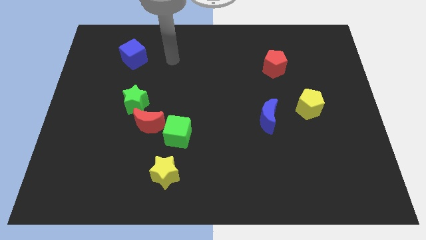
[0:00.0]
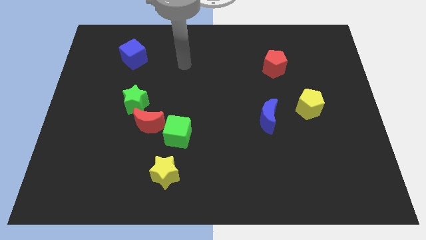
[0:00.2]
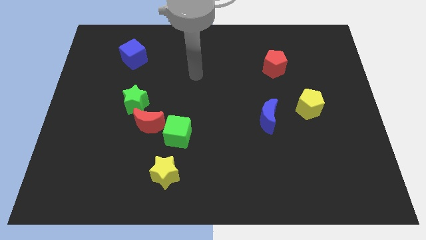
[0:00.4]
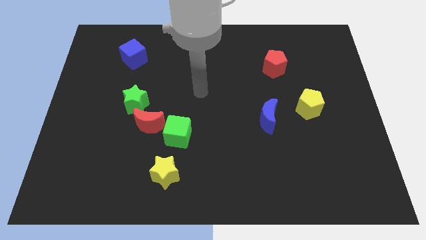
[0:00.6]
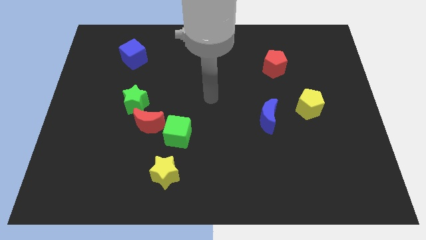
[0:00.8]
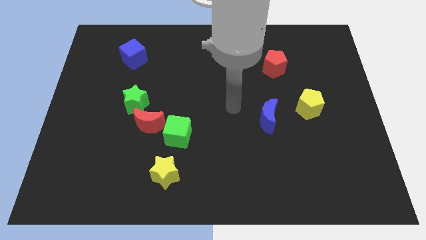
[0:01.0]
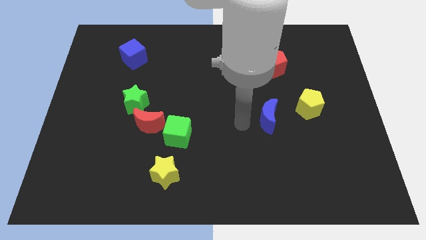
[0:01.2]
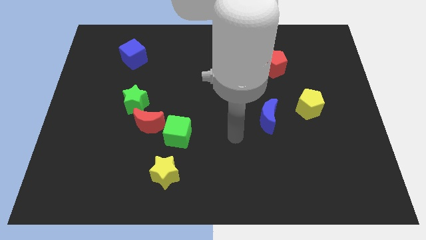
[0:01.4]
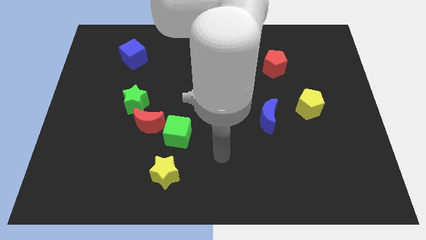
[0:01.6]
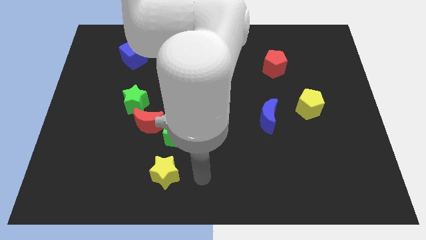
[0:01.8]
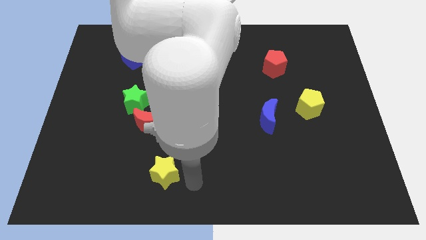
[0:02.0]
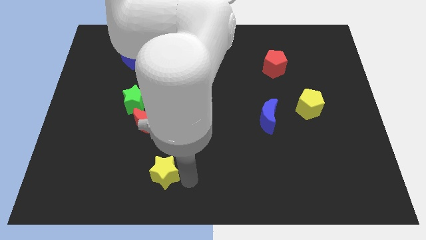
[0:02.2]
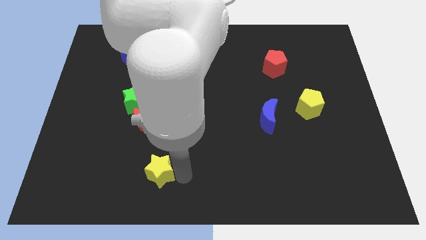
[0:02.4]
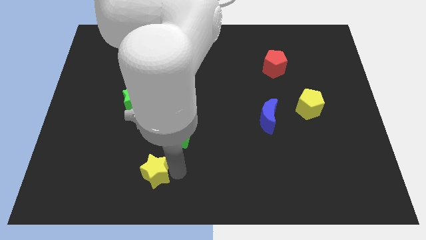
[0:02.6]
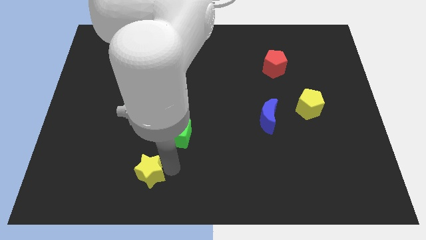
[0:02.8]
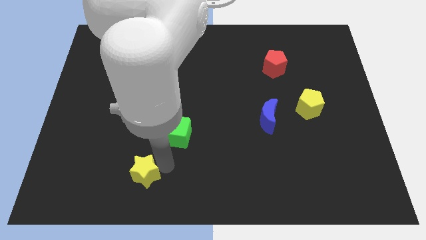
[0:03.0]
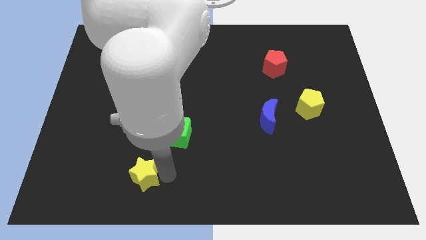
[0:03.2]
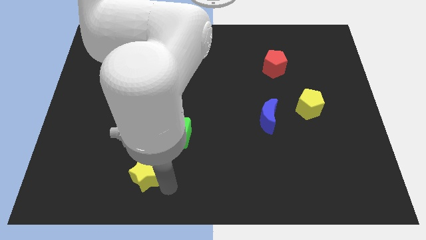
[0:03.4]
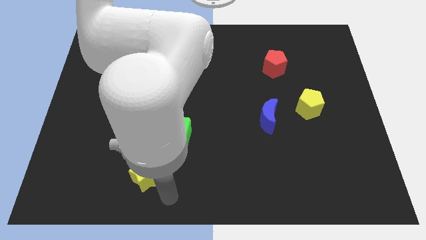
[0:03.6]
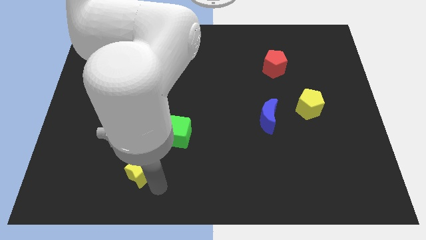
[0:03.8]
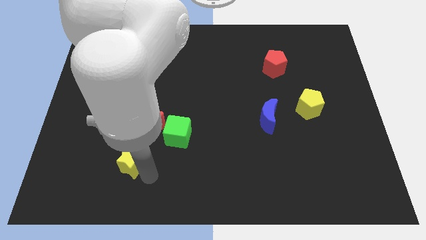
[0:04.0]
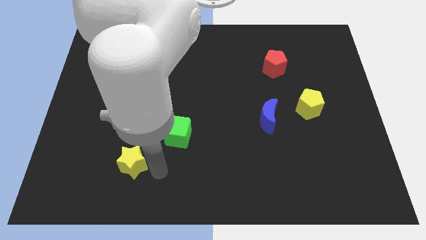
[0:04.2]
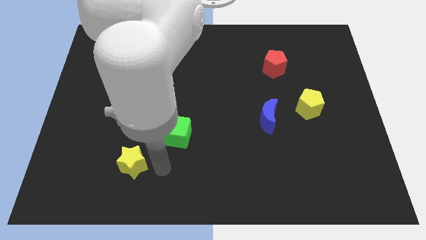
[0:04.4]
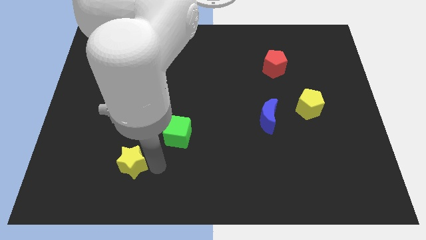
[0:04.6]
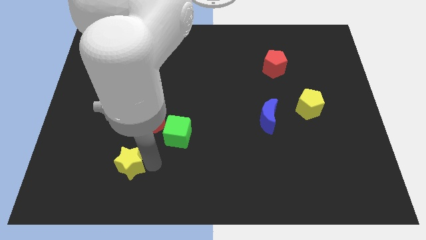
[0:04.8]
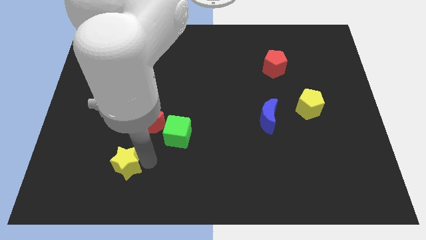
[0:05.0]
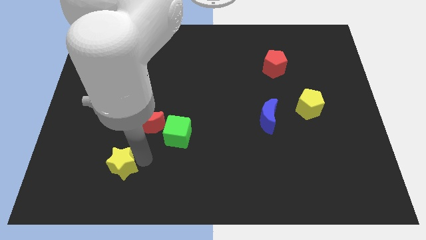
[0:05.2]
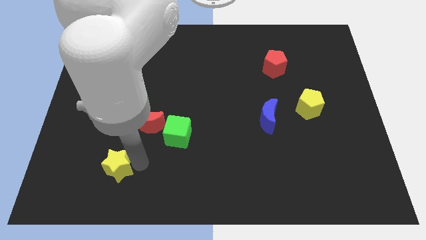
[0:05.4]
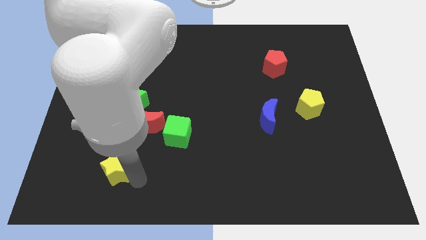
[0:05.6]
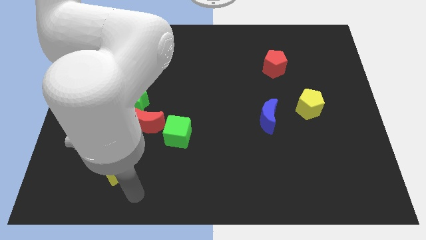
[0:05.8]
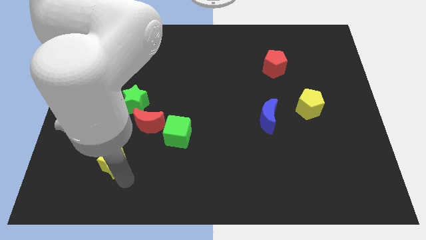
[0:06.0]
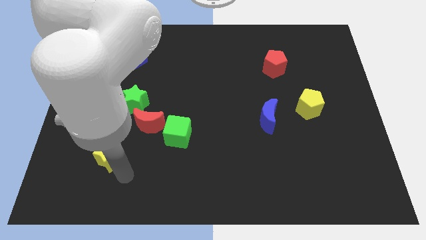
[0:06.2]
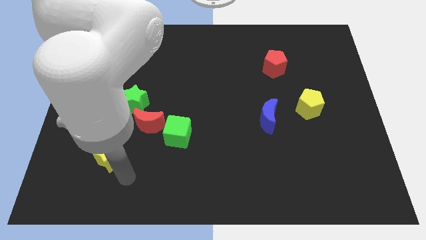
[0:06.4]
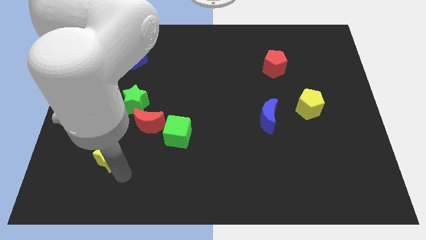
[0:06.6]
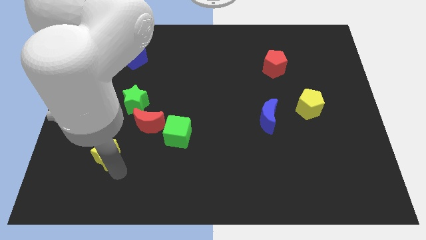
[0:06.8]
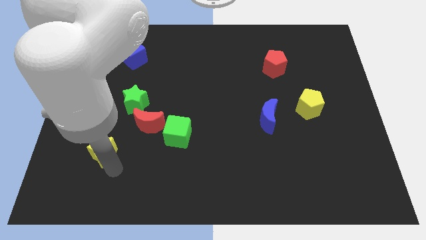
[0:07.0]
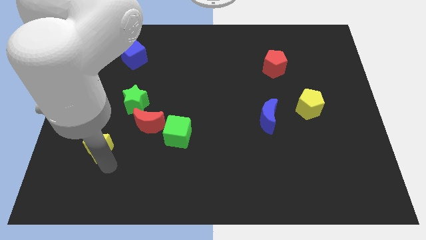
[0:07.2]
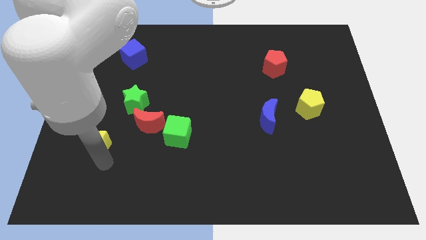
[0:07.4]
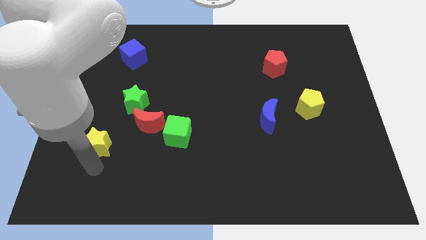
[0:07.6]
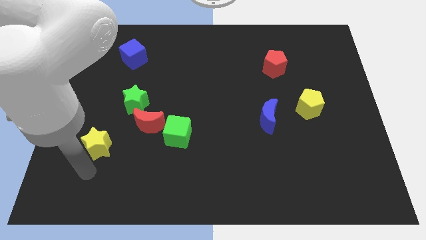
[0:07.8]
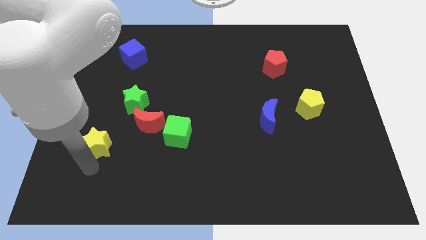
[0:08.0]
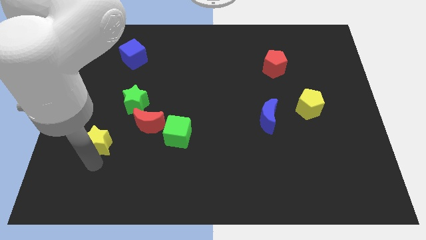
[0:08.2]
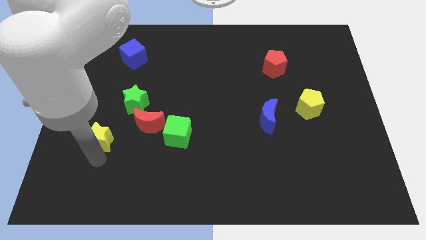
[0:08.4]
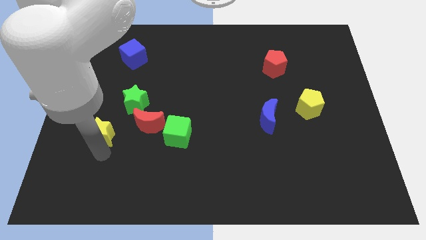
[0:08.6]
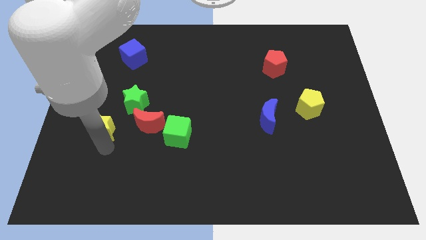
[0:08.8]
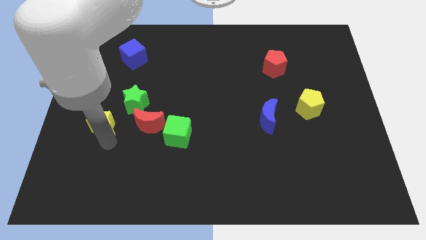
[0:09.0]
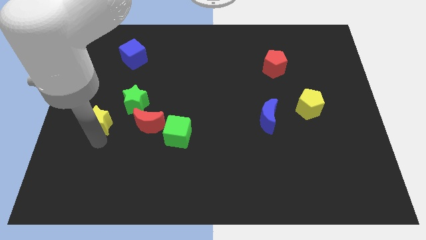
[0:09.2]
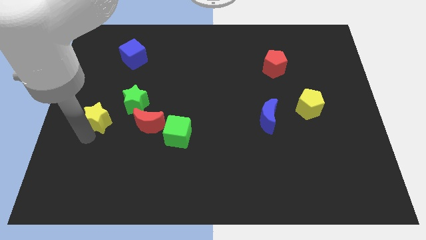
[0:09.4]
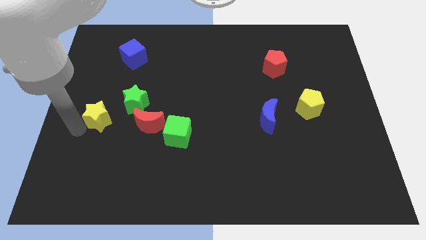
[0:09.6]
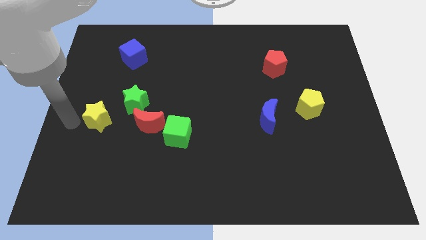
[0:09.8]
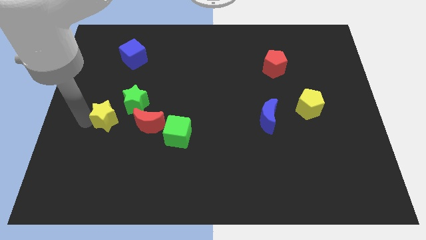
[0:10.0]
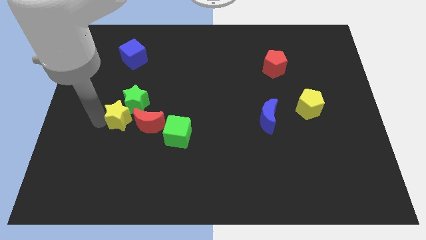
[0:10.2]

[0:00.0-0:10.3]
slide the yellow star towards the green star

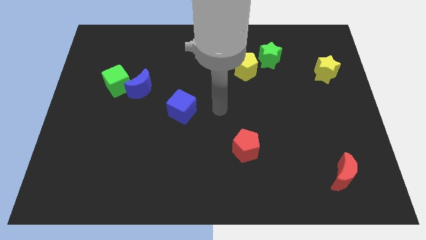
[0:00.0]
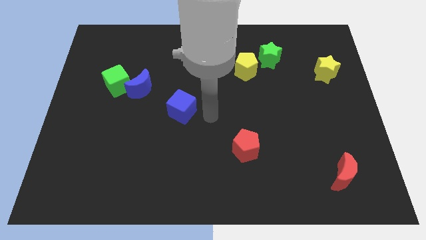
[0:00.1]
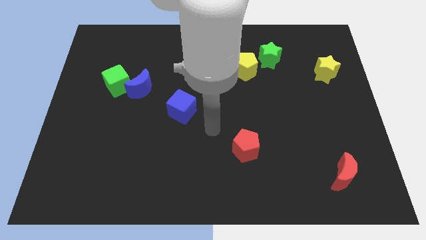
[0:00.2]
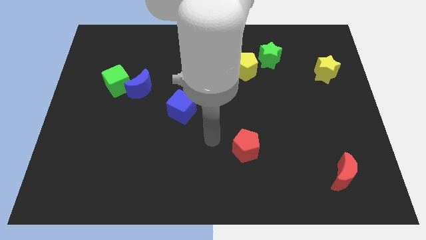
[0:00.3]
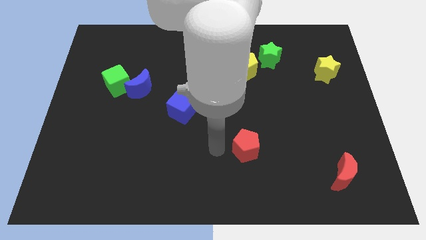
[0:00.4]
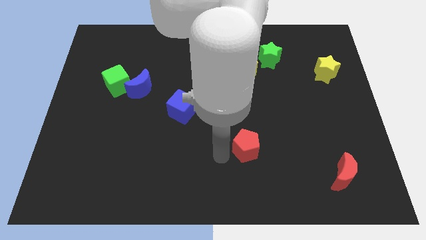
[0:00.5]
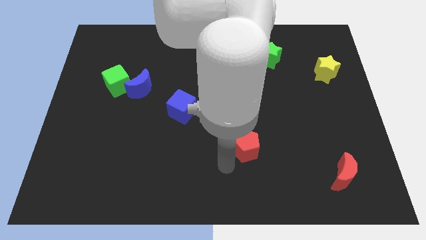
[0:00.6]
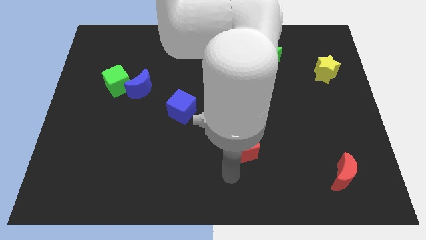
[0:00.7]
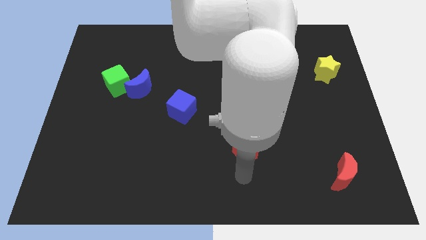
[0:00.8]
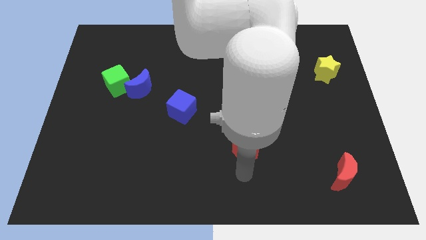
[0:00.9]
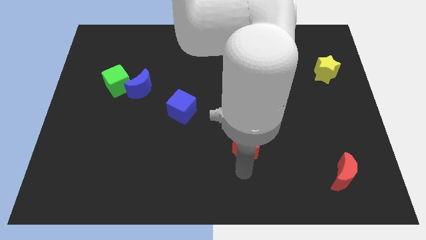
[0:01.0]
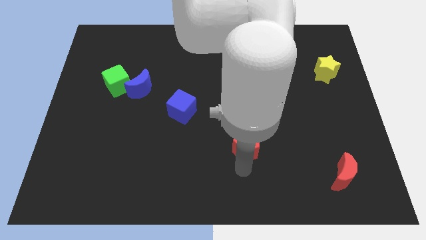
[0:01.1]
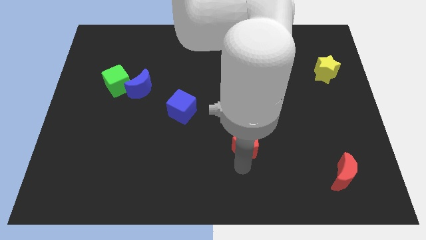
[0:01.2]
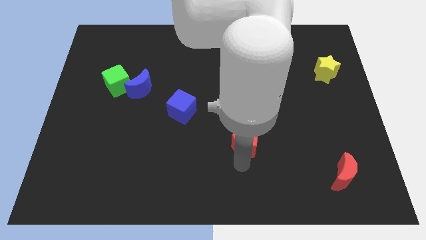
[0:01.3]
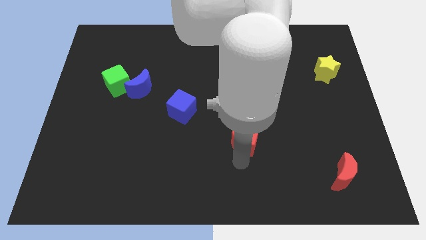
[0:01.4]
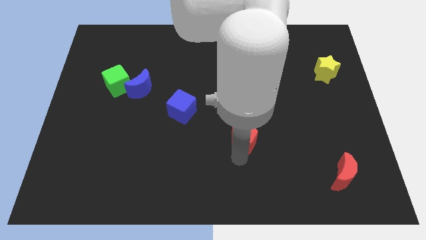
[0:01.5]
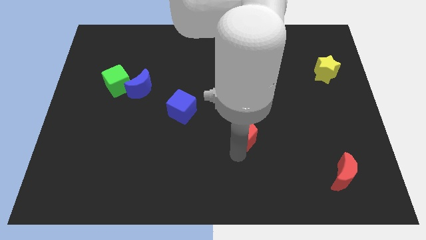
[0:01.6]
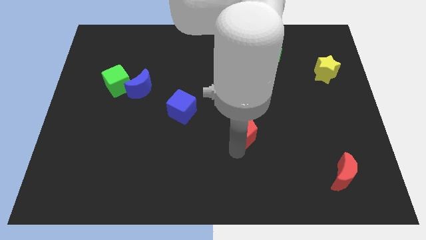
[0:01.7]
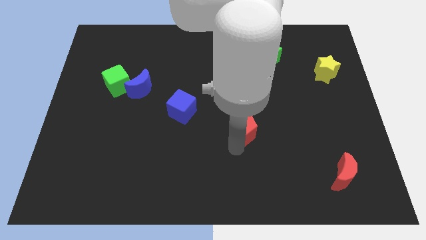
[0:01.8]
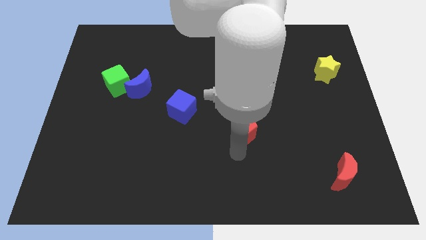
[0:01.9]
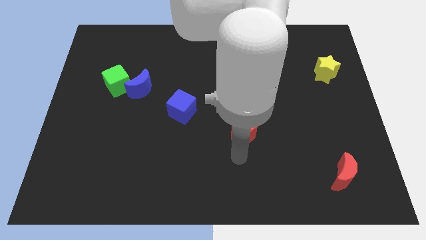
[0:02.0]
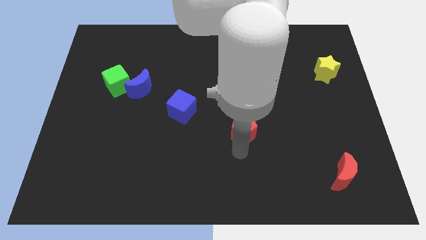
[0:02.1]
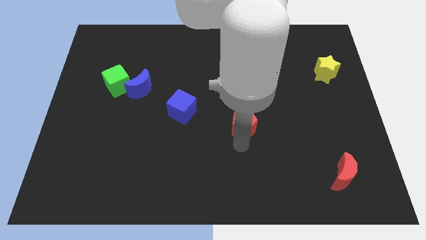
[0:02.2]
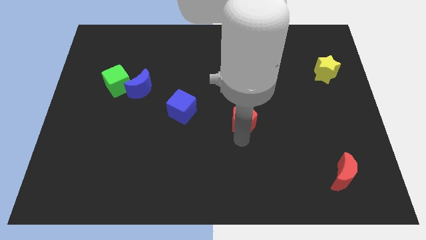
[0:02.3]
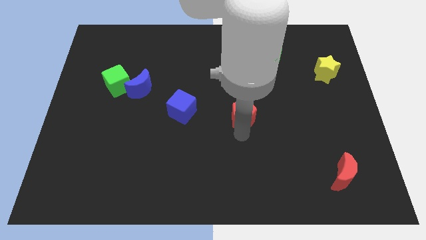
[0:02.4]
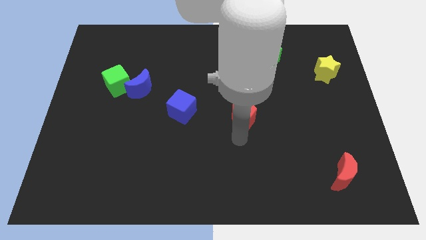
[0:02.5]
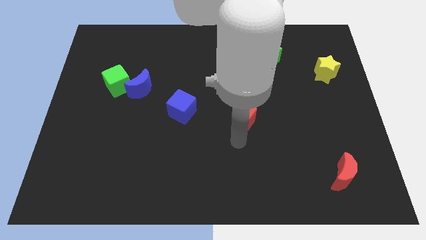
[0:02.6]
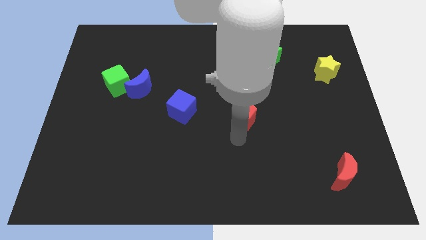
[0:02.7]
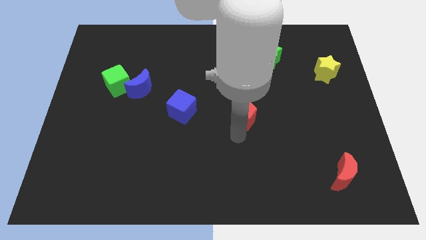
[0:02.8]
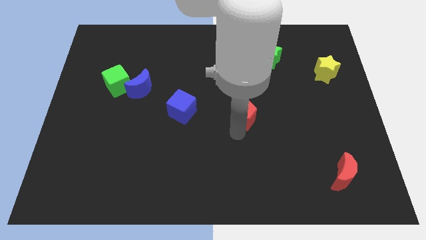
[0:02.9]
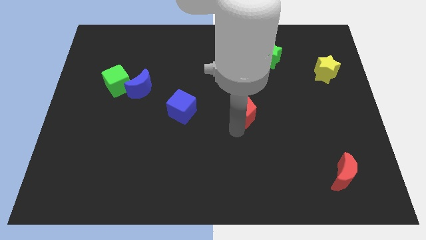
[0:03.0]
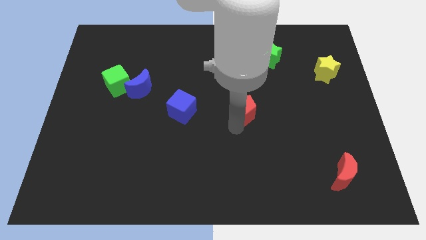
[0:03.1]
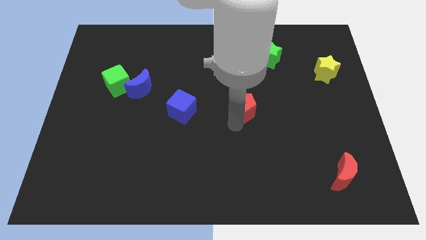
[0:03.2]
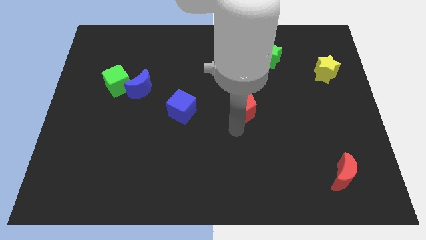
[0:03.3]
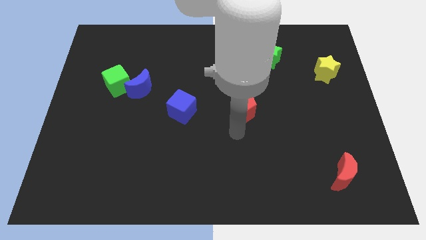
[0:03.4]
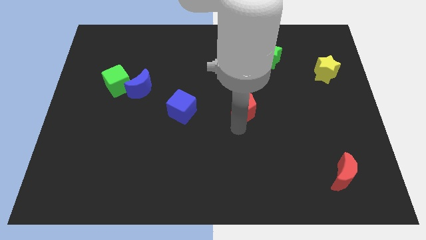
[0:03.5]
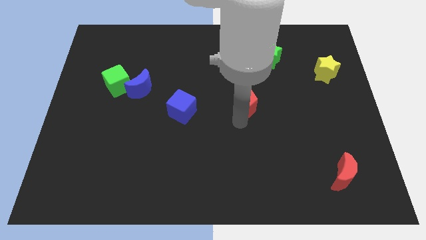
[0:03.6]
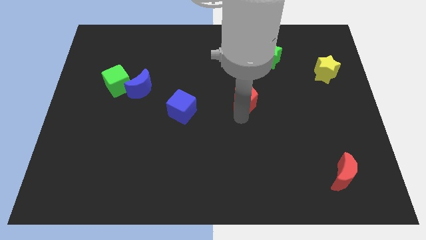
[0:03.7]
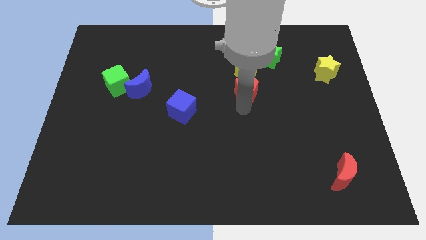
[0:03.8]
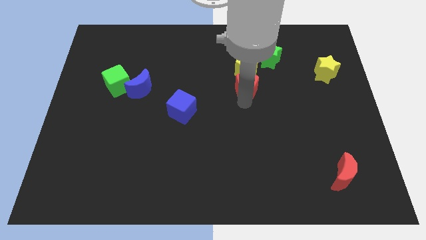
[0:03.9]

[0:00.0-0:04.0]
push the red pentagon to the yellow pentagon
